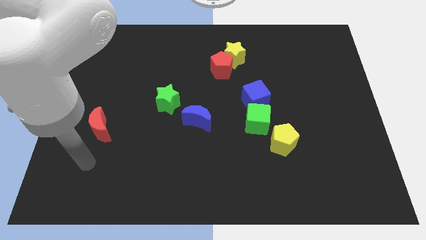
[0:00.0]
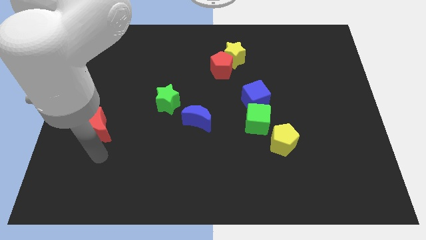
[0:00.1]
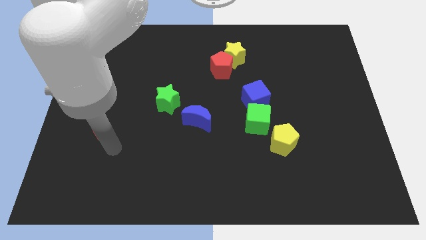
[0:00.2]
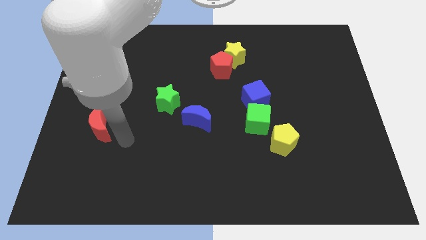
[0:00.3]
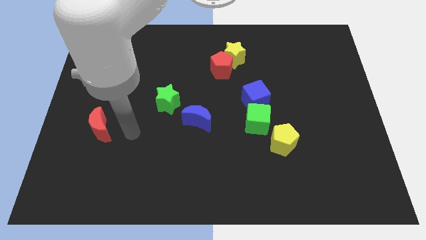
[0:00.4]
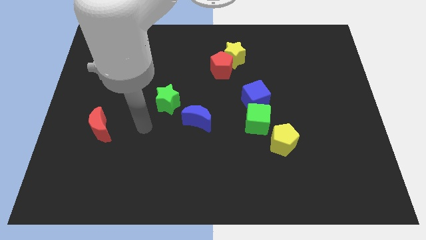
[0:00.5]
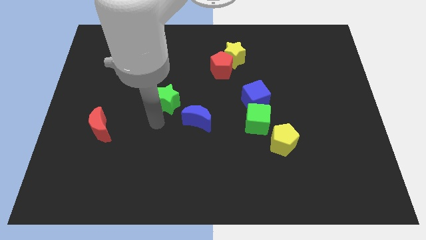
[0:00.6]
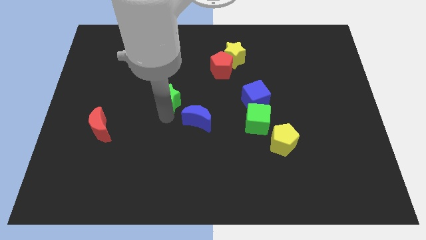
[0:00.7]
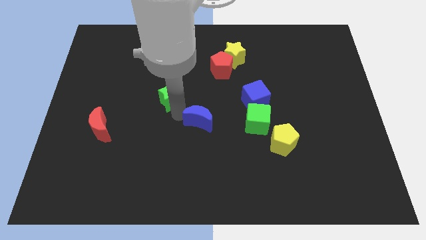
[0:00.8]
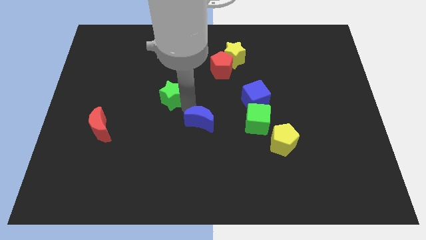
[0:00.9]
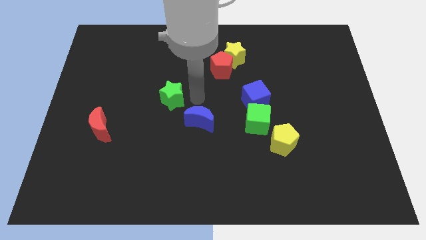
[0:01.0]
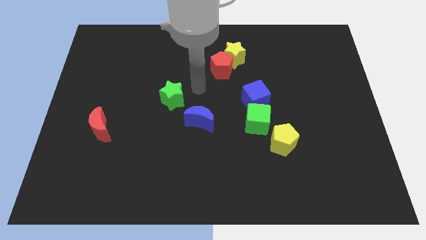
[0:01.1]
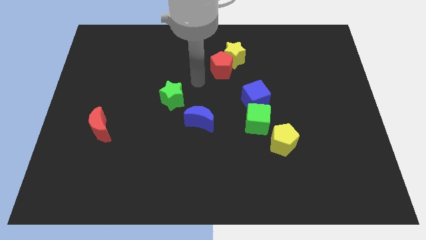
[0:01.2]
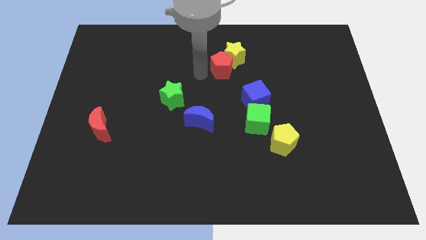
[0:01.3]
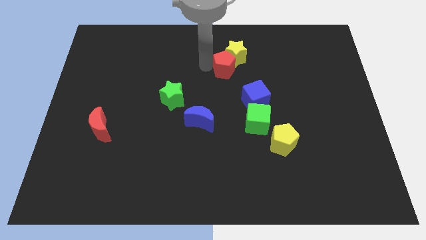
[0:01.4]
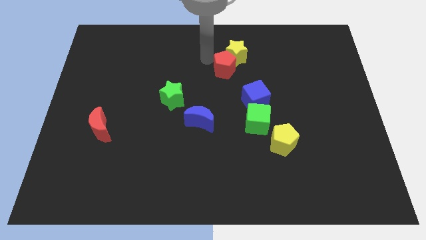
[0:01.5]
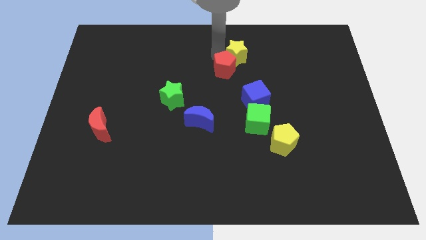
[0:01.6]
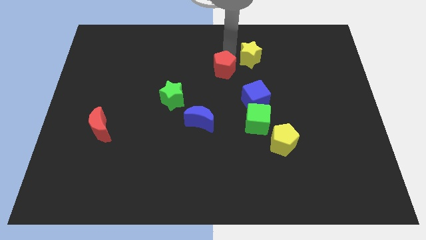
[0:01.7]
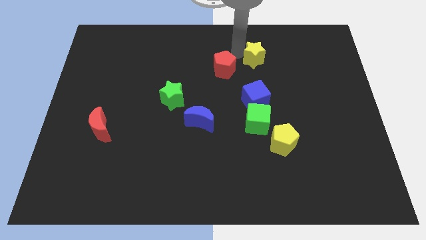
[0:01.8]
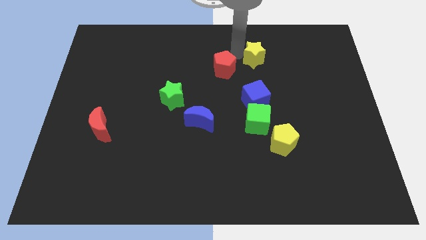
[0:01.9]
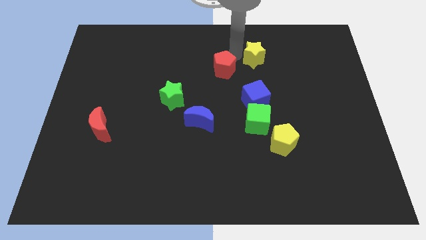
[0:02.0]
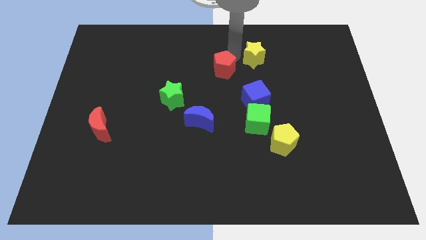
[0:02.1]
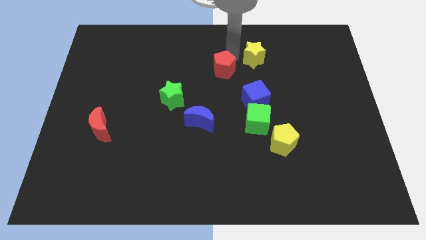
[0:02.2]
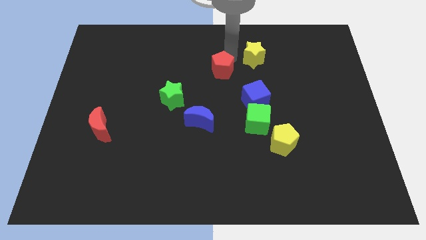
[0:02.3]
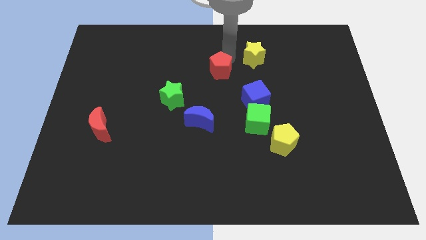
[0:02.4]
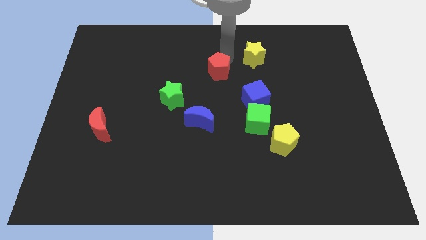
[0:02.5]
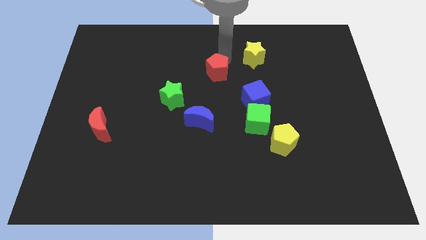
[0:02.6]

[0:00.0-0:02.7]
pull the red pentagon apart from the yellow star

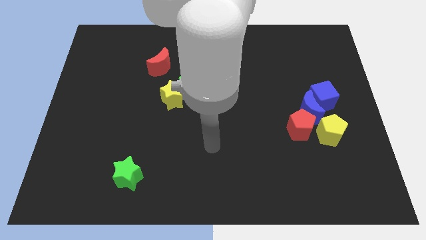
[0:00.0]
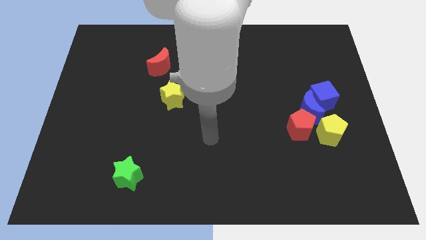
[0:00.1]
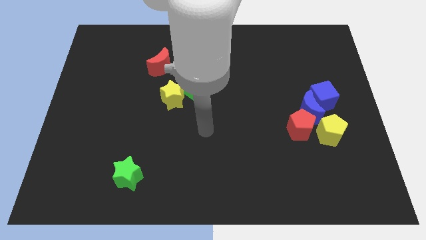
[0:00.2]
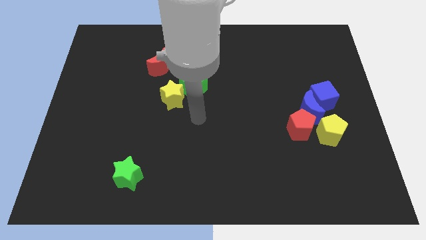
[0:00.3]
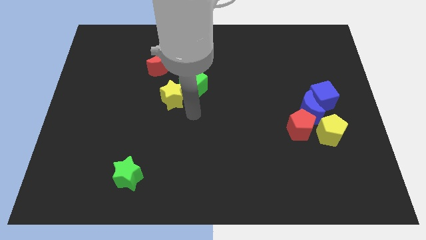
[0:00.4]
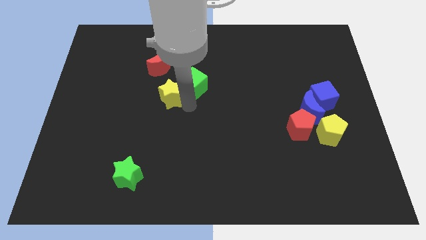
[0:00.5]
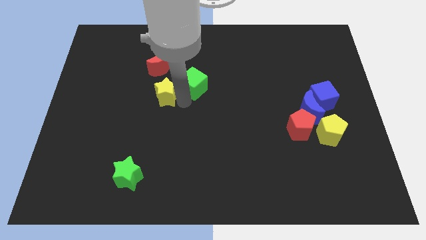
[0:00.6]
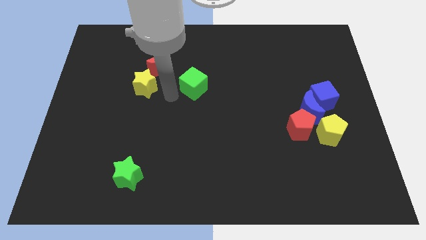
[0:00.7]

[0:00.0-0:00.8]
move the green cube away from the yellow star

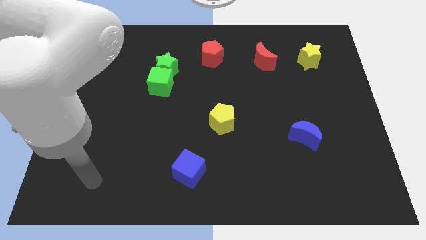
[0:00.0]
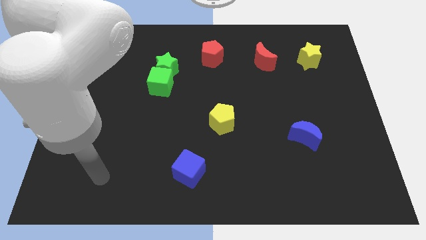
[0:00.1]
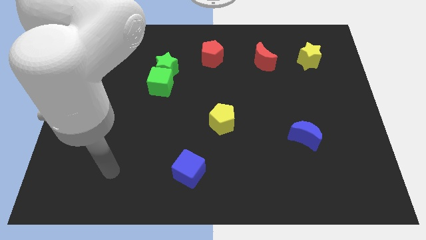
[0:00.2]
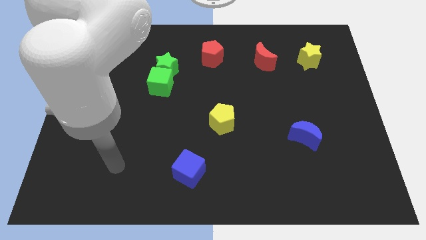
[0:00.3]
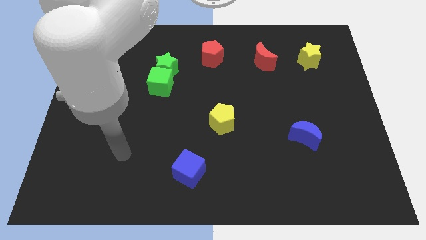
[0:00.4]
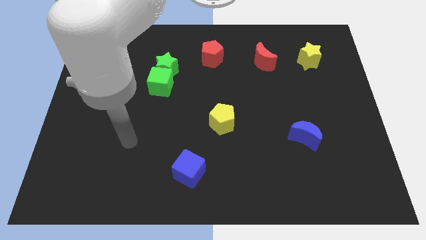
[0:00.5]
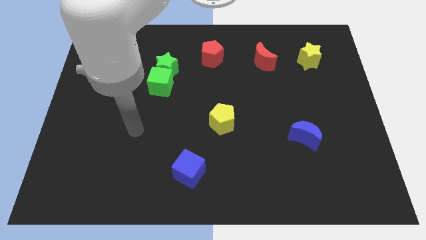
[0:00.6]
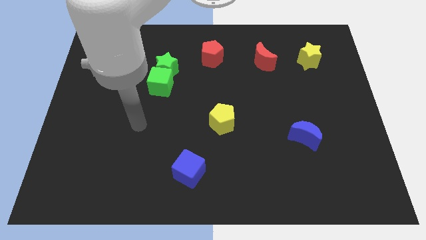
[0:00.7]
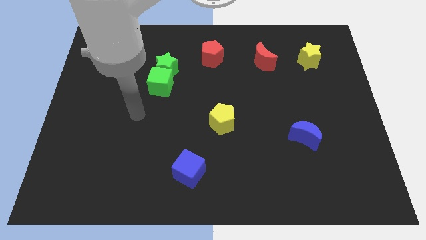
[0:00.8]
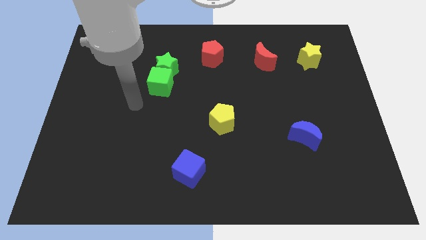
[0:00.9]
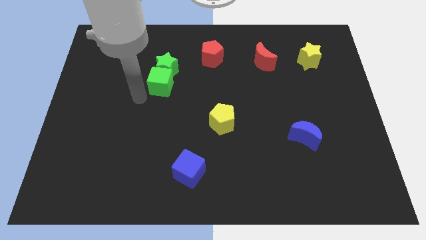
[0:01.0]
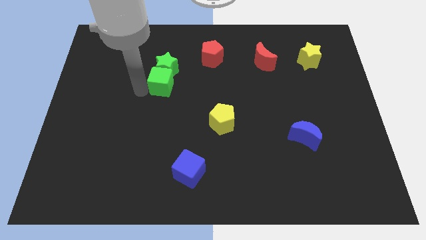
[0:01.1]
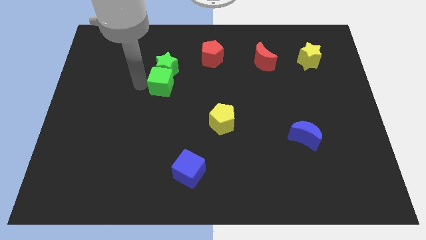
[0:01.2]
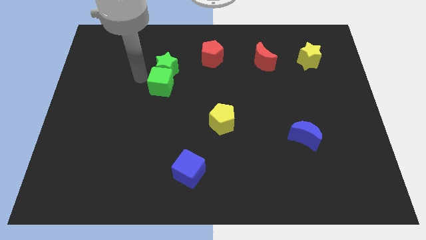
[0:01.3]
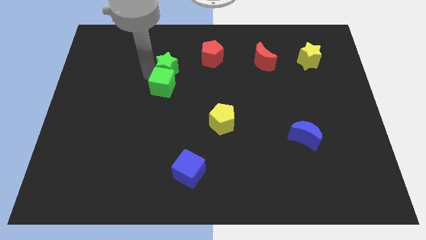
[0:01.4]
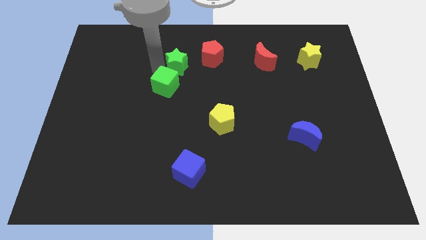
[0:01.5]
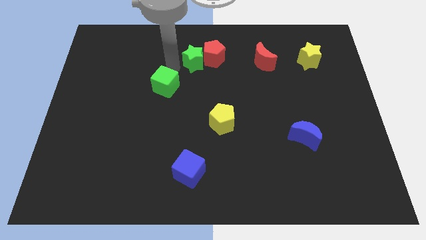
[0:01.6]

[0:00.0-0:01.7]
pull the green cube apart from the green star

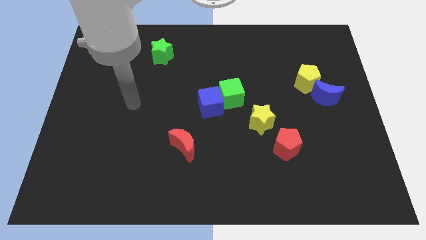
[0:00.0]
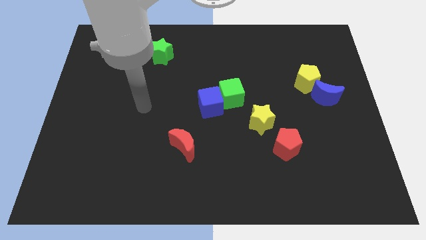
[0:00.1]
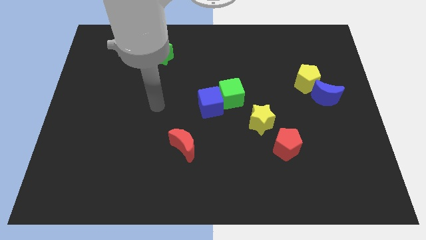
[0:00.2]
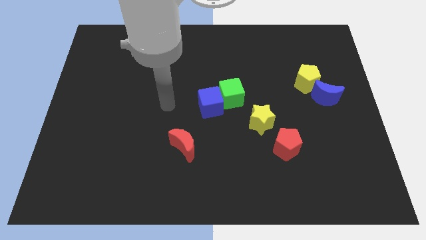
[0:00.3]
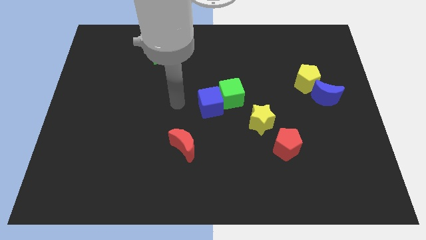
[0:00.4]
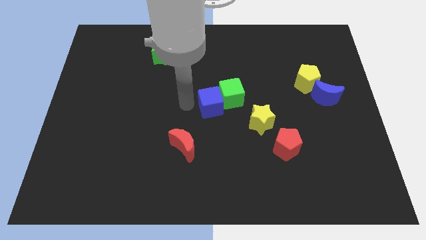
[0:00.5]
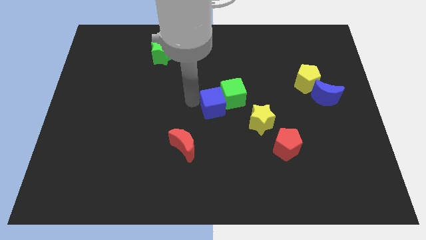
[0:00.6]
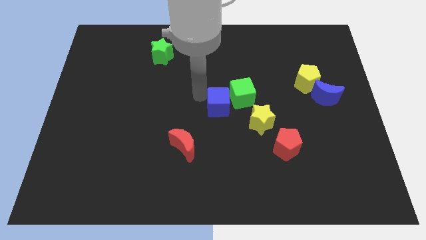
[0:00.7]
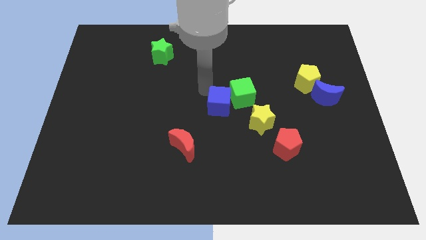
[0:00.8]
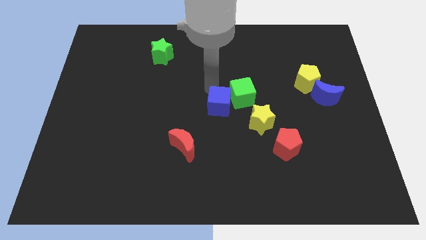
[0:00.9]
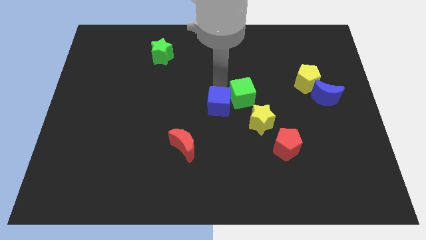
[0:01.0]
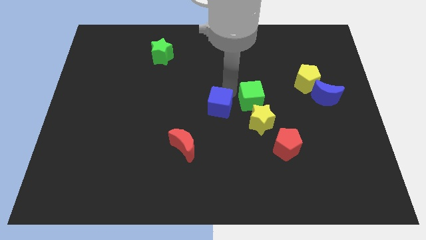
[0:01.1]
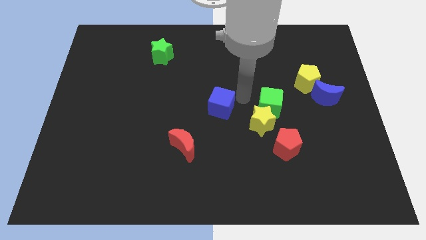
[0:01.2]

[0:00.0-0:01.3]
separate the blue cube from the green cube

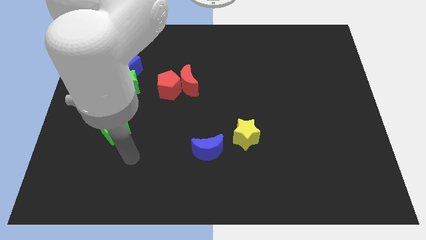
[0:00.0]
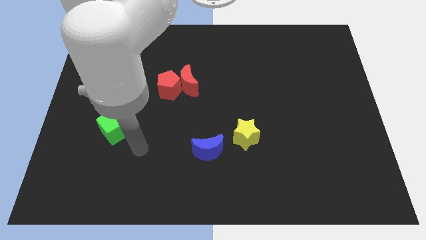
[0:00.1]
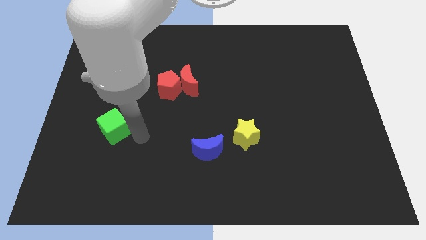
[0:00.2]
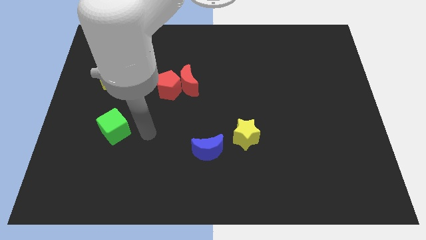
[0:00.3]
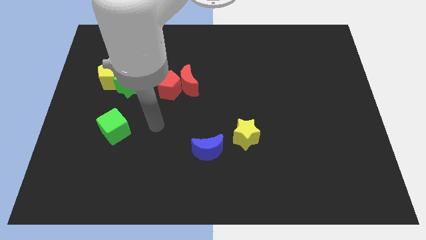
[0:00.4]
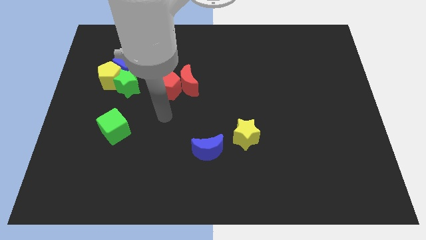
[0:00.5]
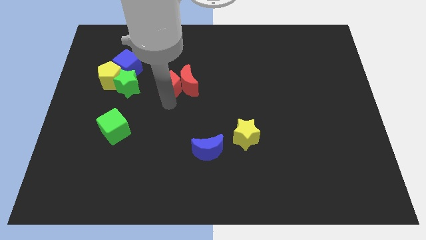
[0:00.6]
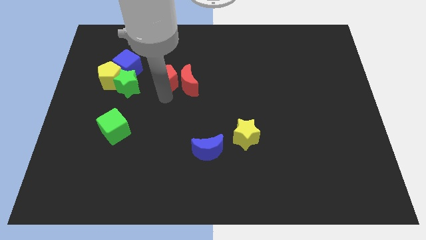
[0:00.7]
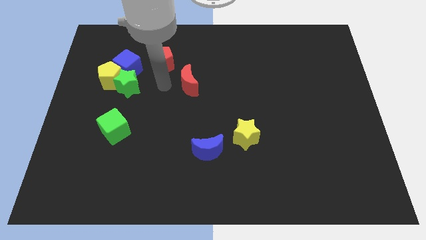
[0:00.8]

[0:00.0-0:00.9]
move the red moon away from the red pentagon

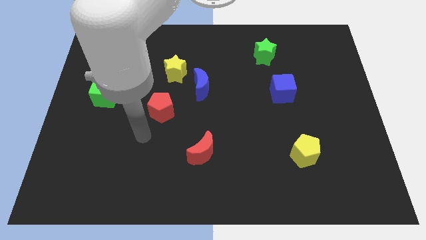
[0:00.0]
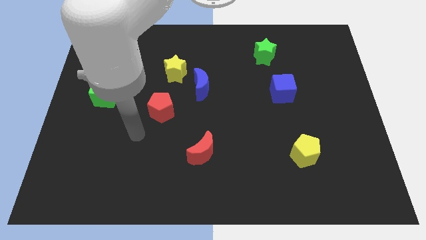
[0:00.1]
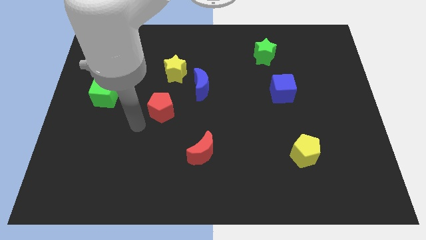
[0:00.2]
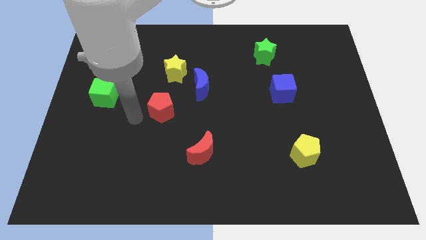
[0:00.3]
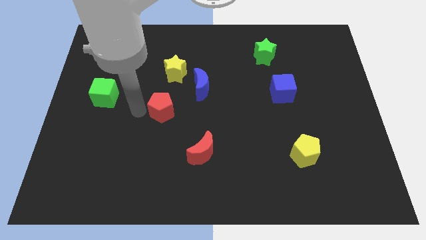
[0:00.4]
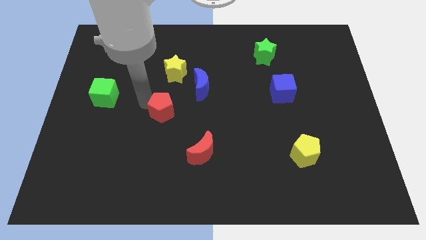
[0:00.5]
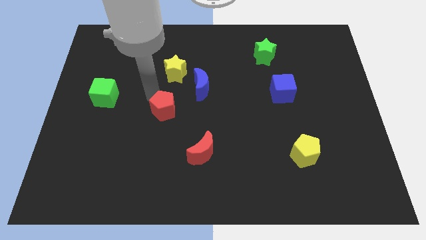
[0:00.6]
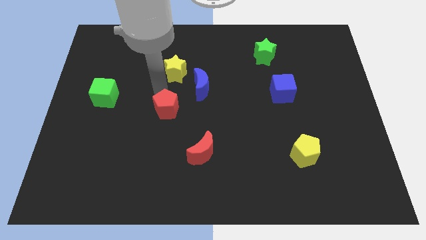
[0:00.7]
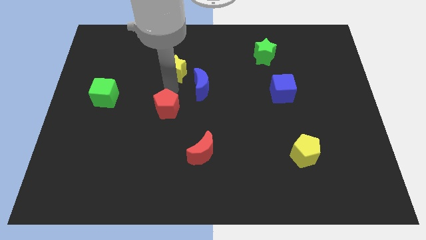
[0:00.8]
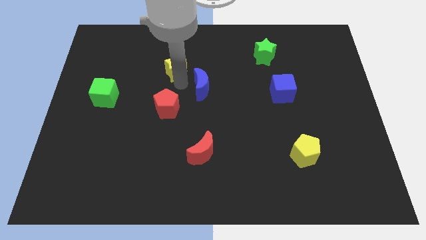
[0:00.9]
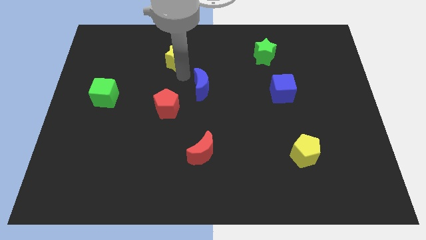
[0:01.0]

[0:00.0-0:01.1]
separate the blue moon from the yellow star

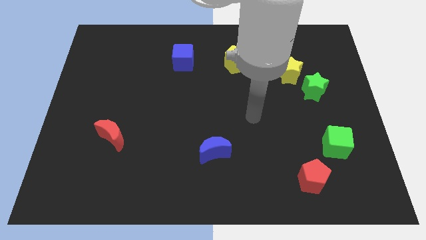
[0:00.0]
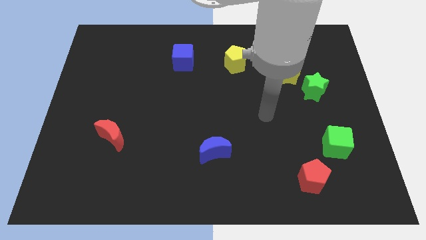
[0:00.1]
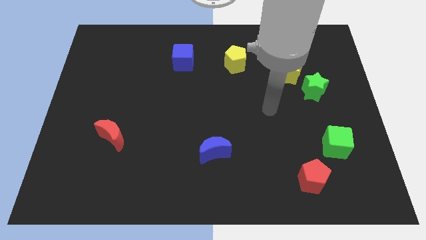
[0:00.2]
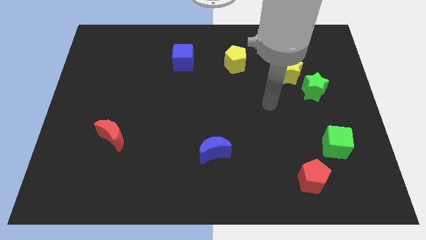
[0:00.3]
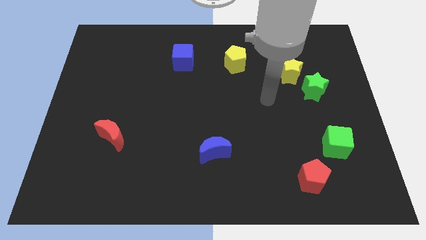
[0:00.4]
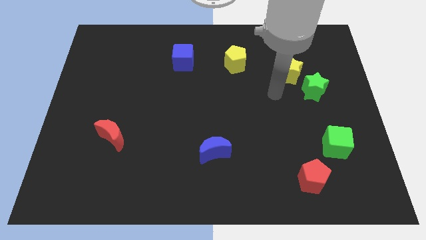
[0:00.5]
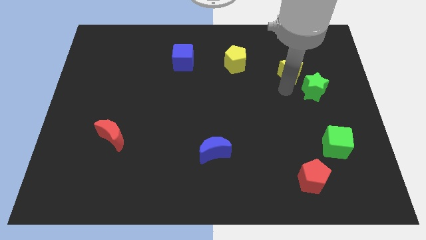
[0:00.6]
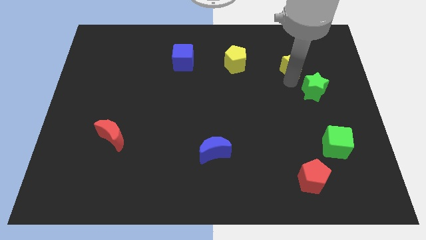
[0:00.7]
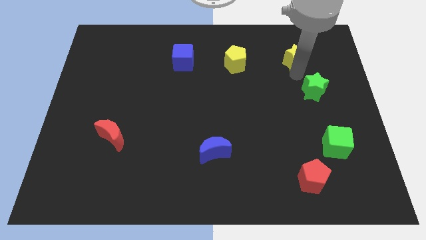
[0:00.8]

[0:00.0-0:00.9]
move the green star away from the yellow star
